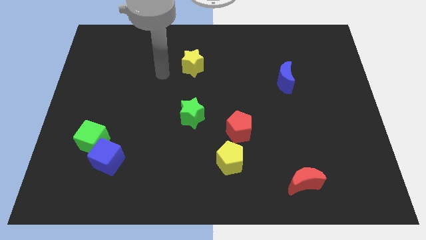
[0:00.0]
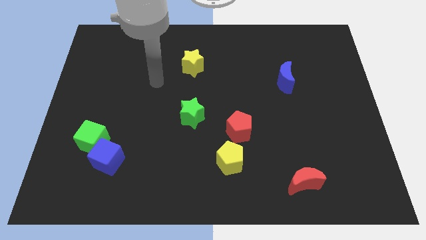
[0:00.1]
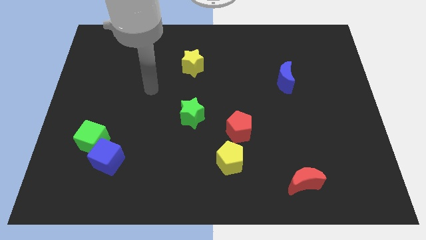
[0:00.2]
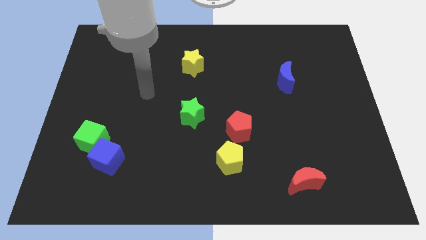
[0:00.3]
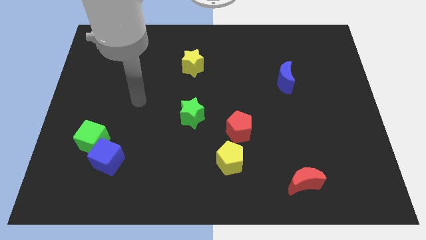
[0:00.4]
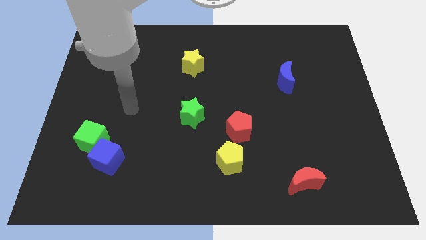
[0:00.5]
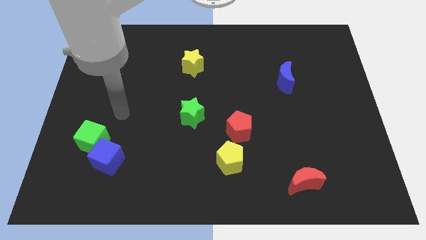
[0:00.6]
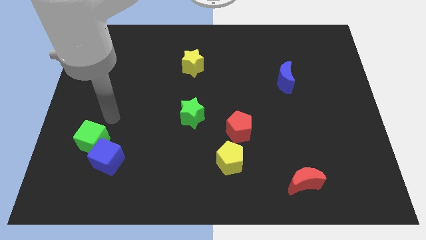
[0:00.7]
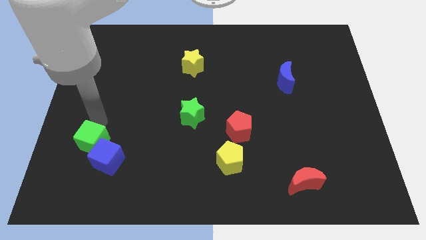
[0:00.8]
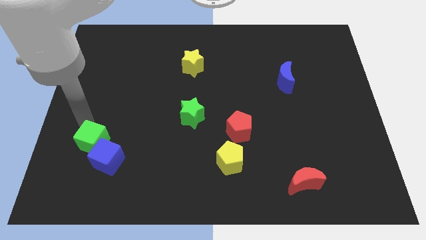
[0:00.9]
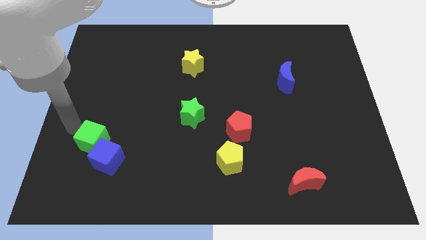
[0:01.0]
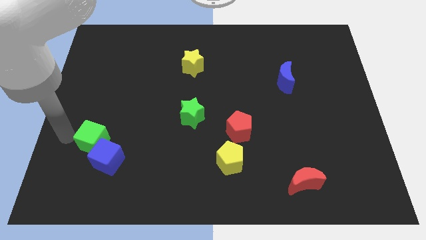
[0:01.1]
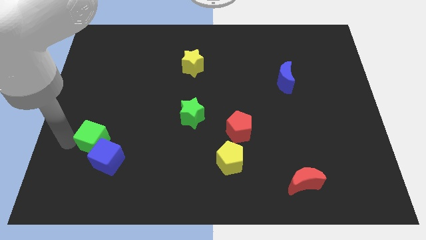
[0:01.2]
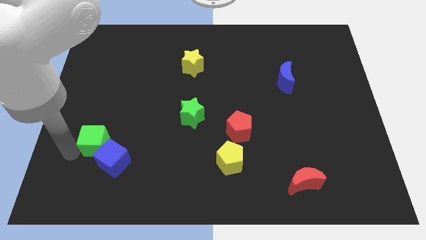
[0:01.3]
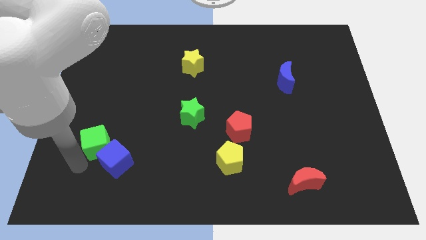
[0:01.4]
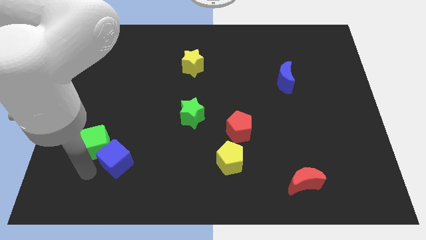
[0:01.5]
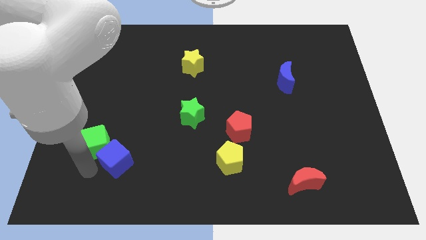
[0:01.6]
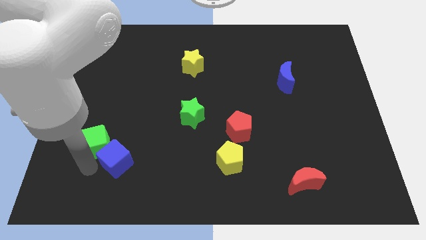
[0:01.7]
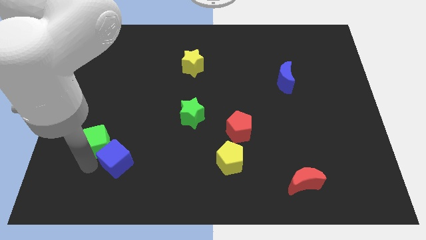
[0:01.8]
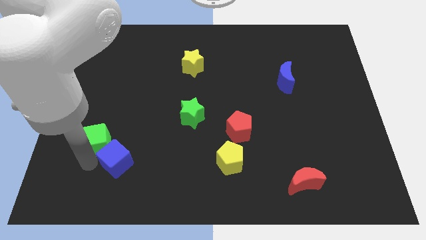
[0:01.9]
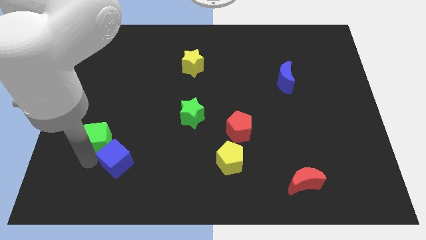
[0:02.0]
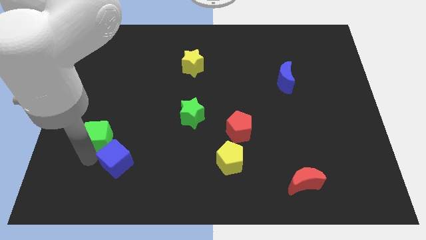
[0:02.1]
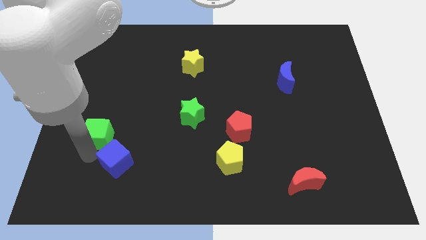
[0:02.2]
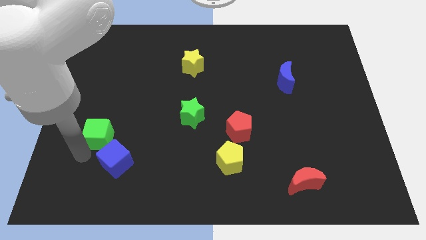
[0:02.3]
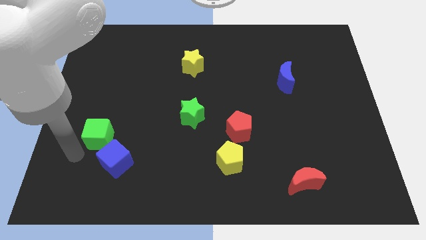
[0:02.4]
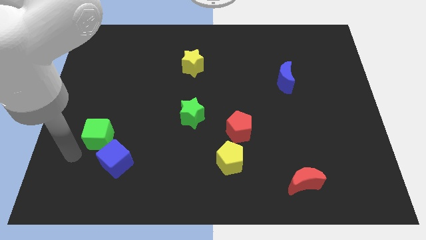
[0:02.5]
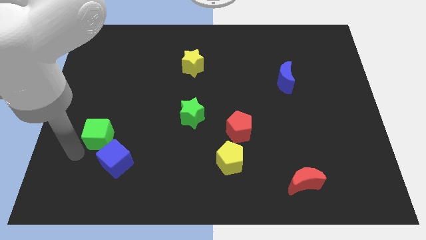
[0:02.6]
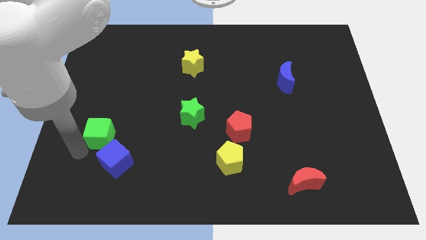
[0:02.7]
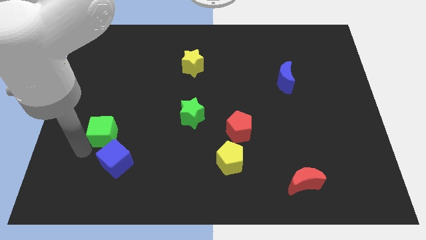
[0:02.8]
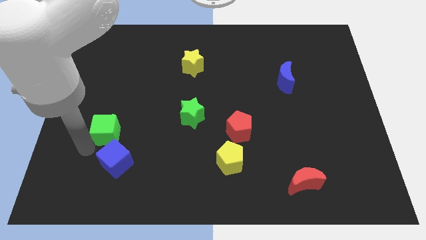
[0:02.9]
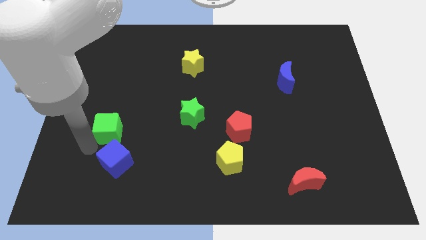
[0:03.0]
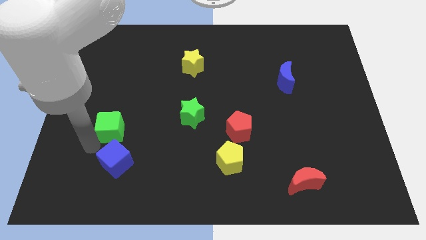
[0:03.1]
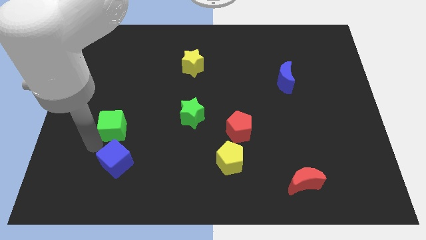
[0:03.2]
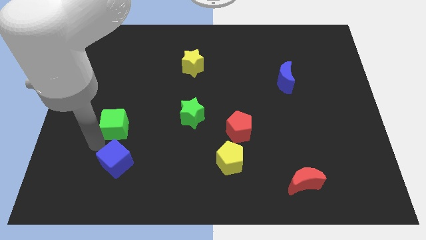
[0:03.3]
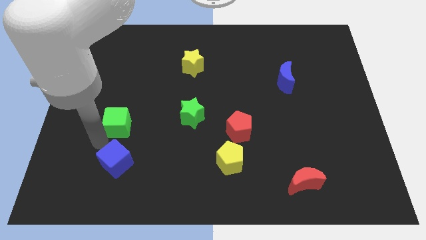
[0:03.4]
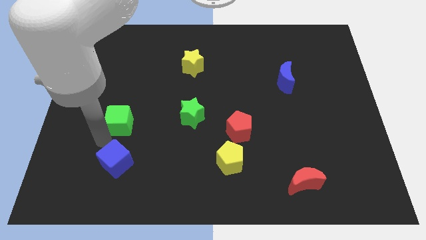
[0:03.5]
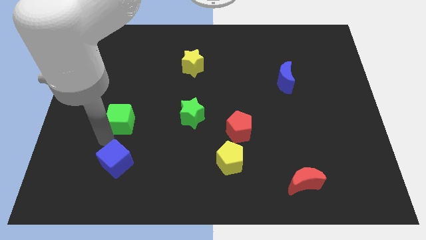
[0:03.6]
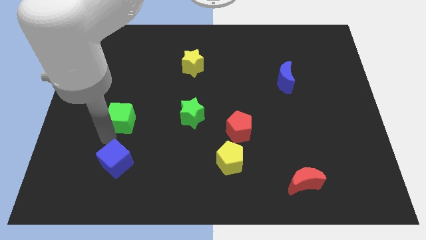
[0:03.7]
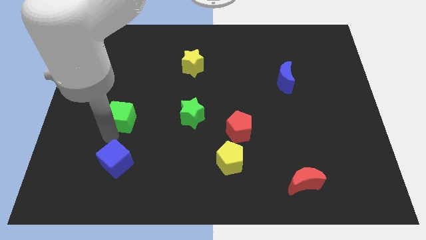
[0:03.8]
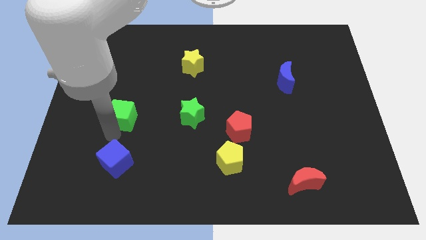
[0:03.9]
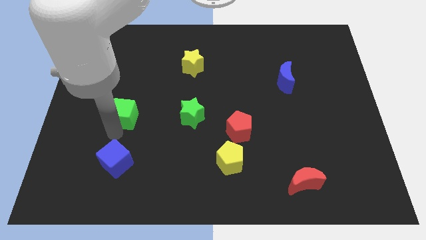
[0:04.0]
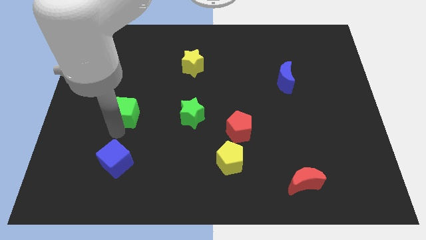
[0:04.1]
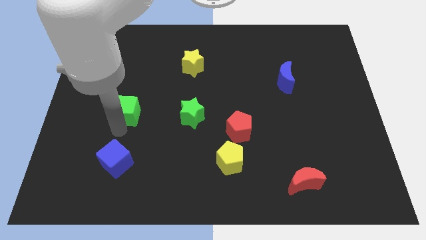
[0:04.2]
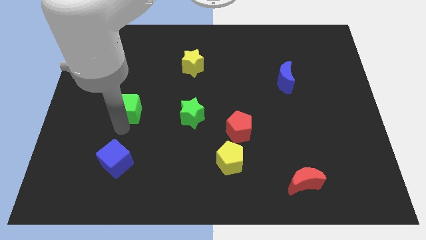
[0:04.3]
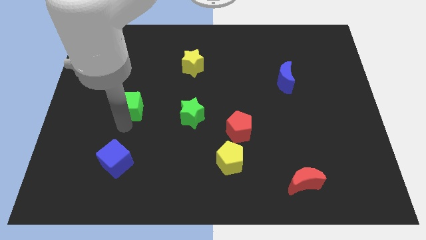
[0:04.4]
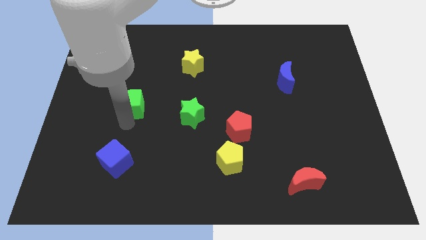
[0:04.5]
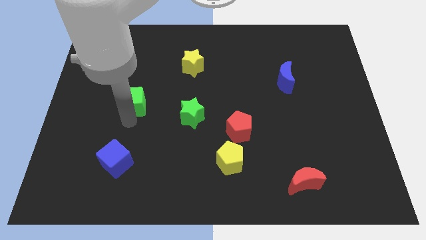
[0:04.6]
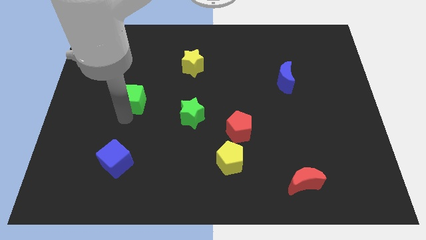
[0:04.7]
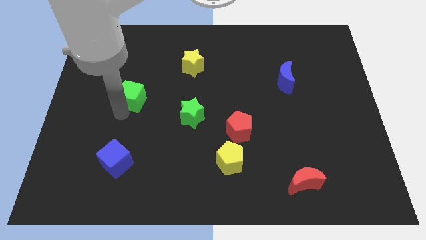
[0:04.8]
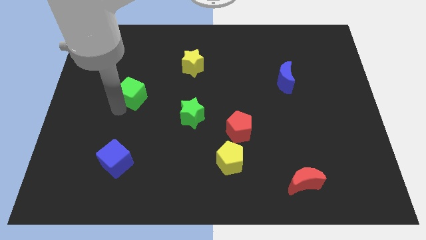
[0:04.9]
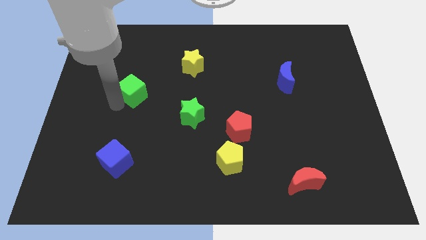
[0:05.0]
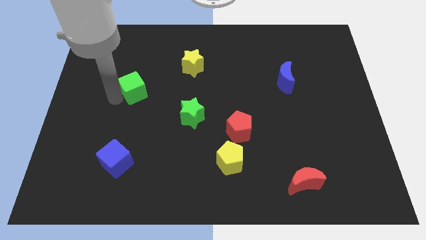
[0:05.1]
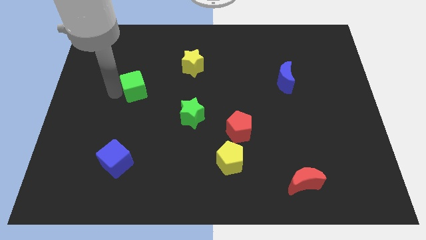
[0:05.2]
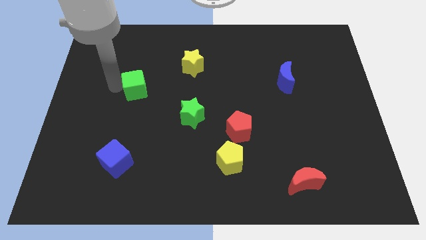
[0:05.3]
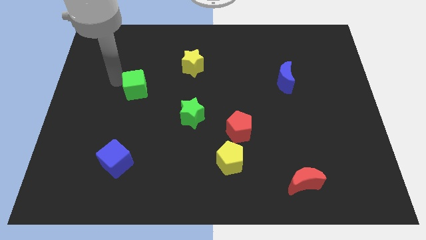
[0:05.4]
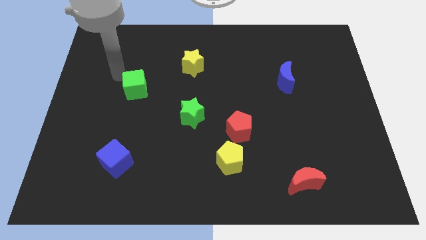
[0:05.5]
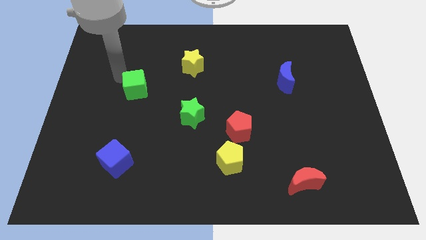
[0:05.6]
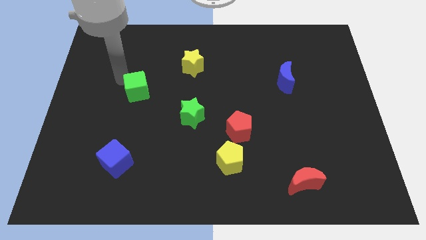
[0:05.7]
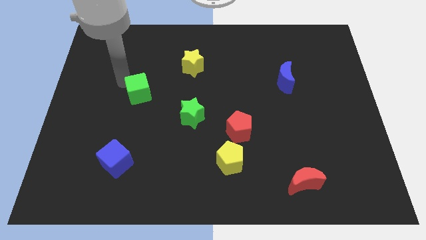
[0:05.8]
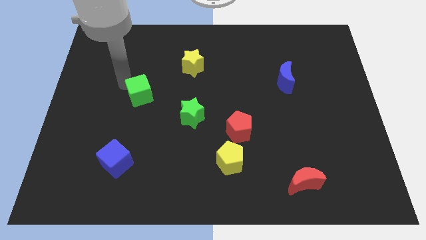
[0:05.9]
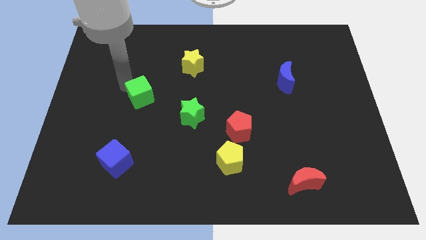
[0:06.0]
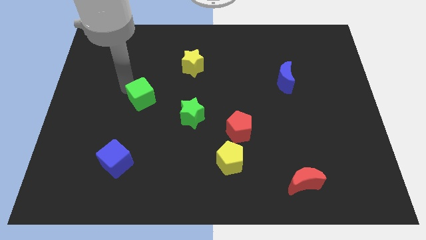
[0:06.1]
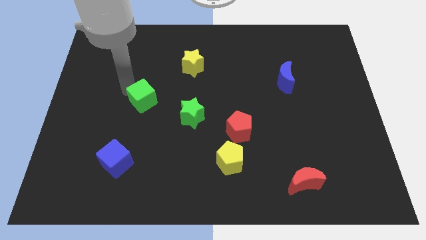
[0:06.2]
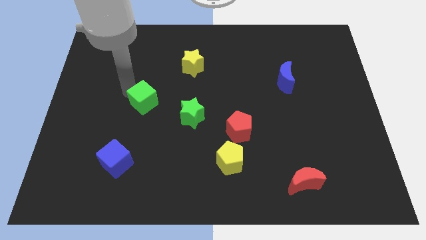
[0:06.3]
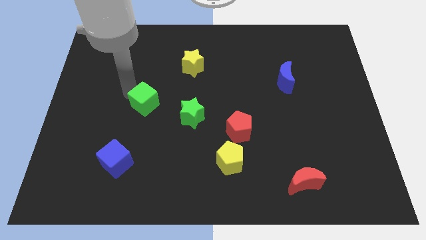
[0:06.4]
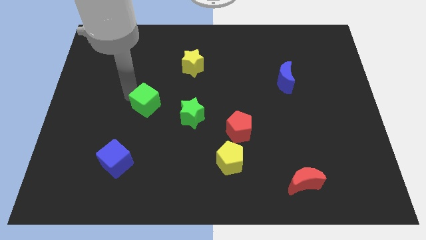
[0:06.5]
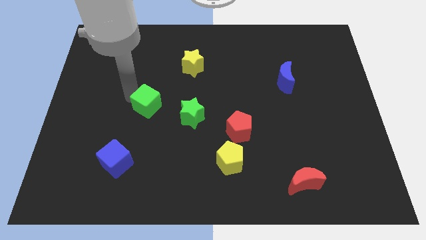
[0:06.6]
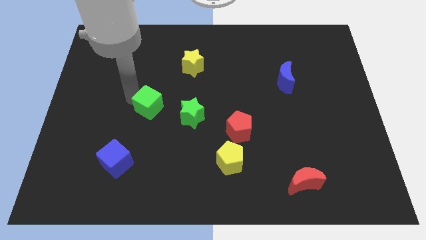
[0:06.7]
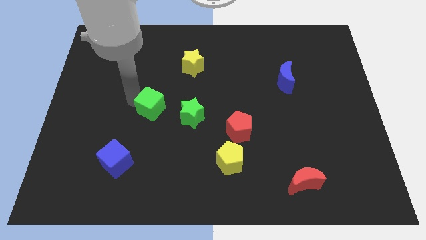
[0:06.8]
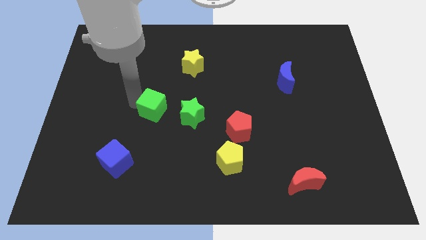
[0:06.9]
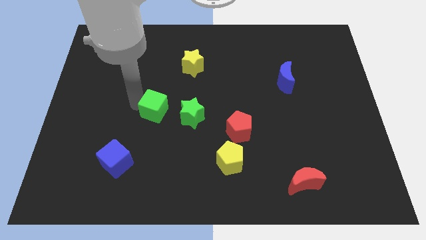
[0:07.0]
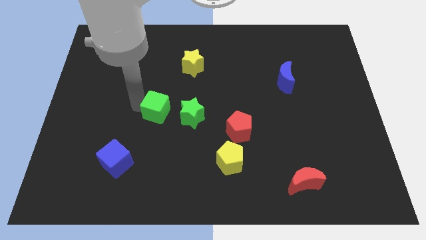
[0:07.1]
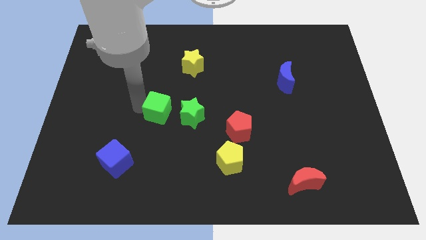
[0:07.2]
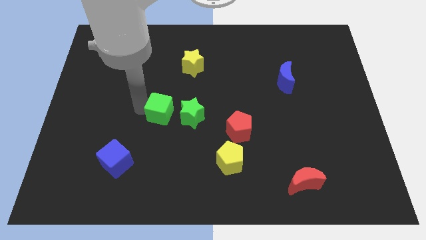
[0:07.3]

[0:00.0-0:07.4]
slide the green cube to the middle of the board
